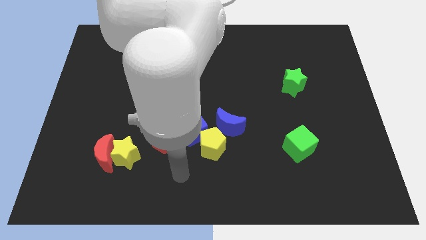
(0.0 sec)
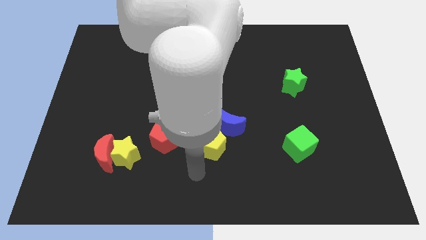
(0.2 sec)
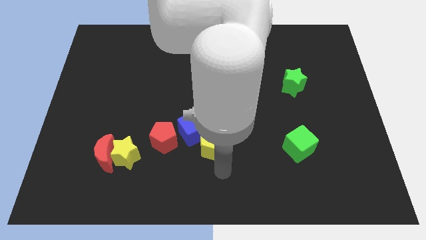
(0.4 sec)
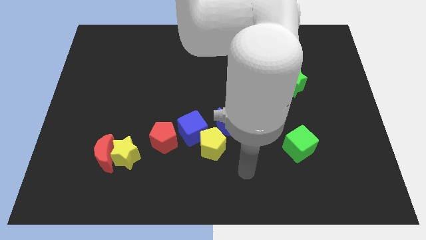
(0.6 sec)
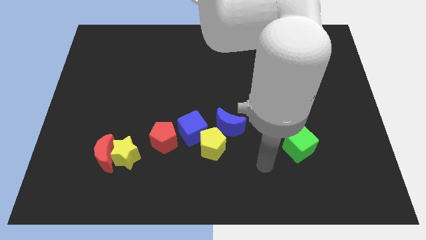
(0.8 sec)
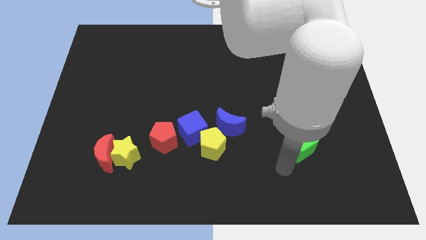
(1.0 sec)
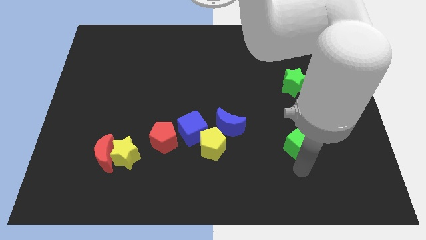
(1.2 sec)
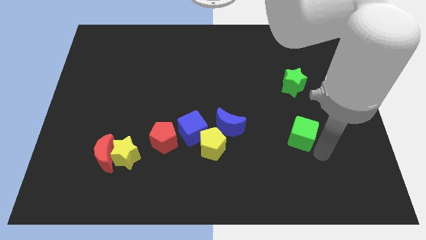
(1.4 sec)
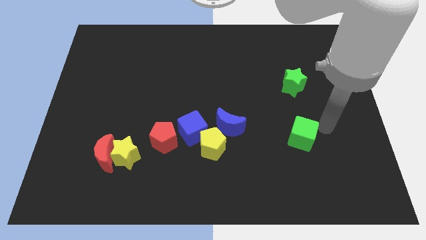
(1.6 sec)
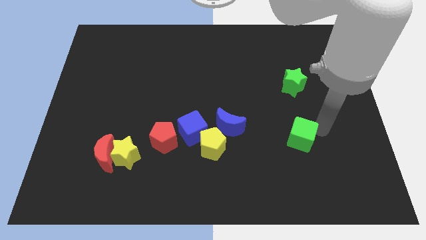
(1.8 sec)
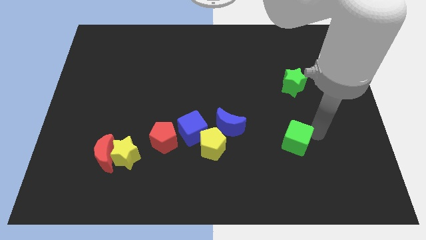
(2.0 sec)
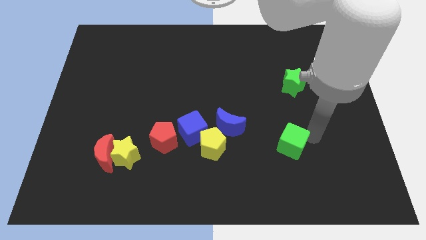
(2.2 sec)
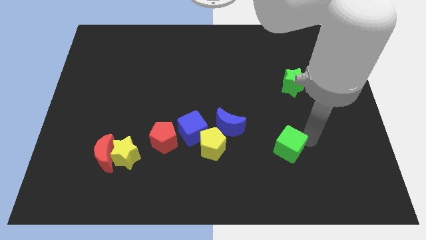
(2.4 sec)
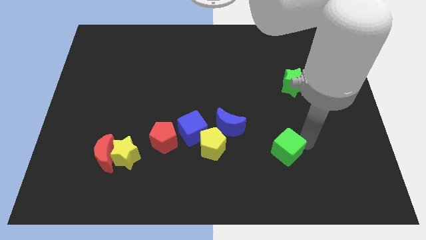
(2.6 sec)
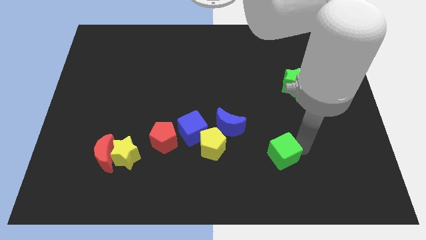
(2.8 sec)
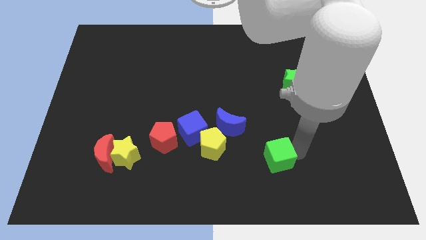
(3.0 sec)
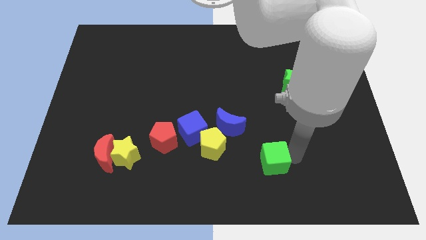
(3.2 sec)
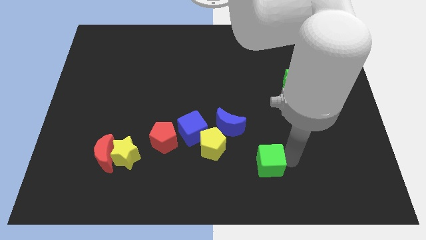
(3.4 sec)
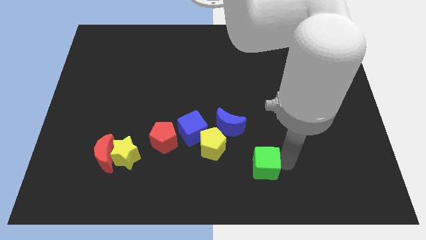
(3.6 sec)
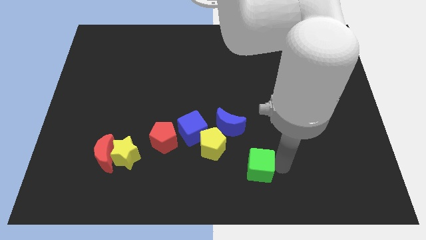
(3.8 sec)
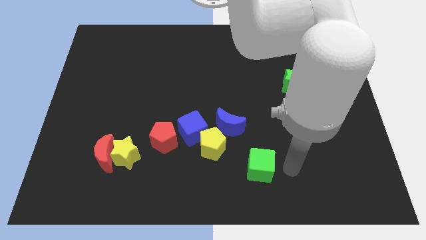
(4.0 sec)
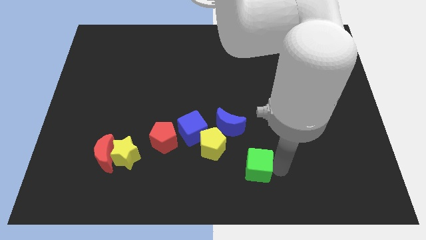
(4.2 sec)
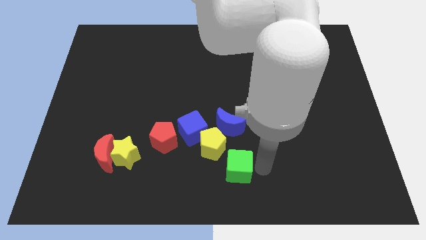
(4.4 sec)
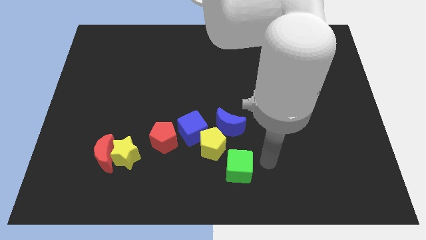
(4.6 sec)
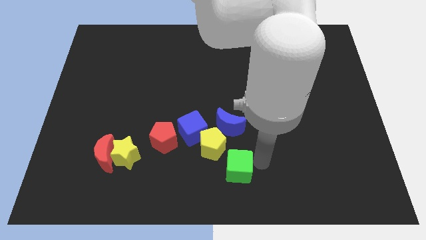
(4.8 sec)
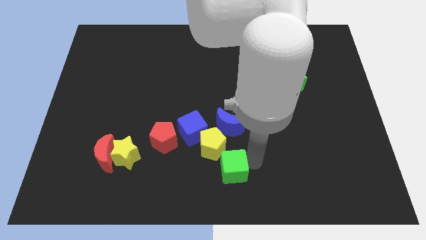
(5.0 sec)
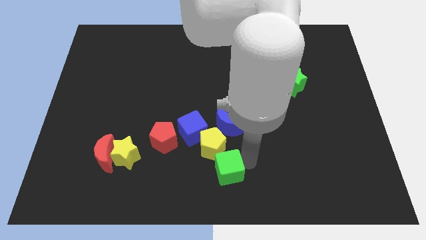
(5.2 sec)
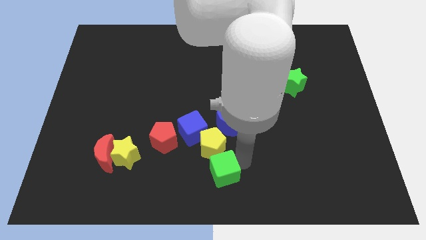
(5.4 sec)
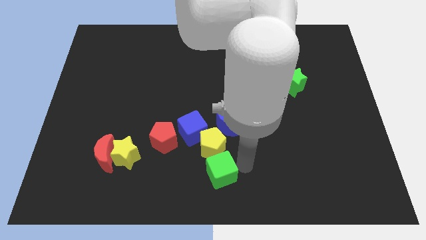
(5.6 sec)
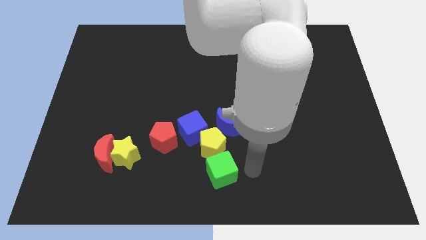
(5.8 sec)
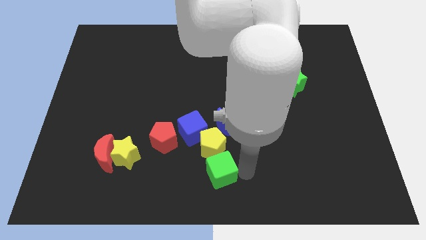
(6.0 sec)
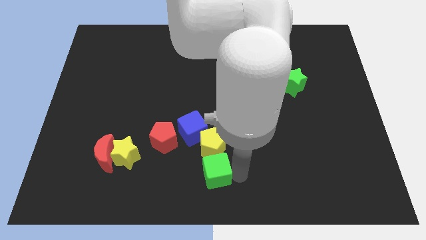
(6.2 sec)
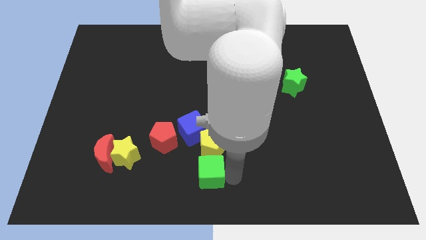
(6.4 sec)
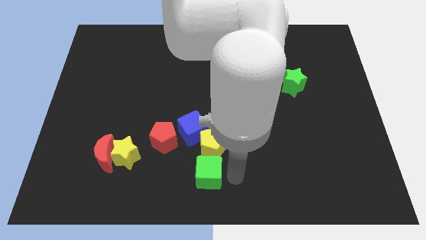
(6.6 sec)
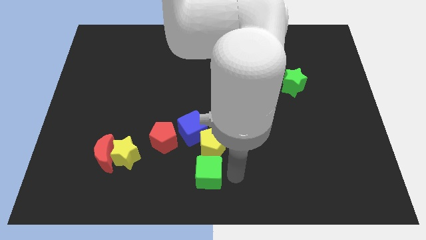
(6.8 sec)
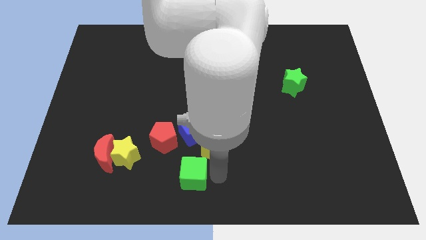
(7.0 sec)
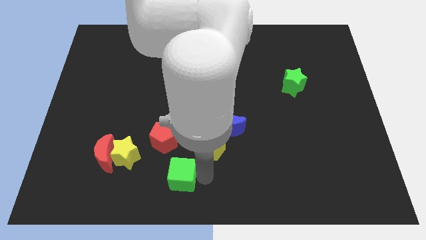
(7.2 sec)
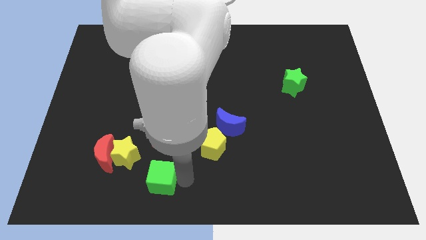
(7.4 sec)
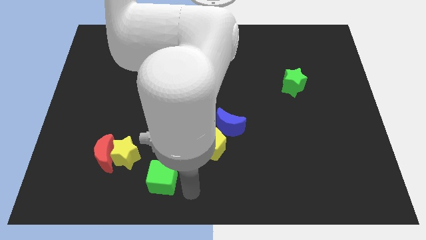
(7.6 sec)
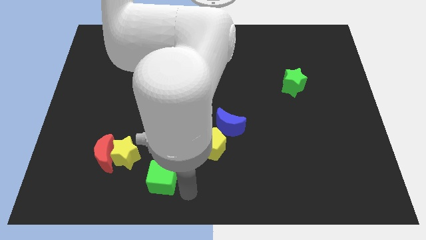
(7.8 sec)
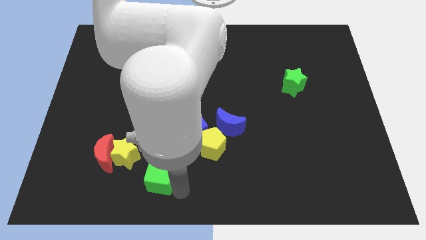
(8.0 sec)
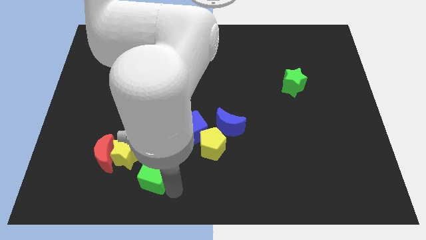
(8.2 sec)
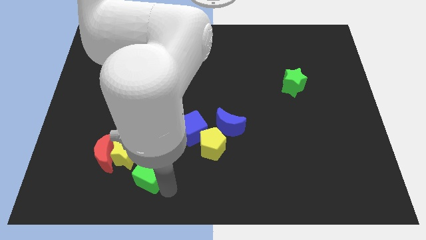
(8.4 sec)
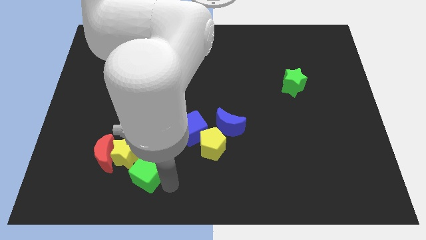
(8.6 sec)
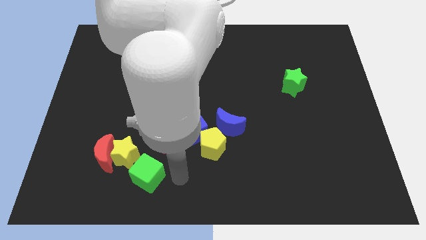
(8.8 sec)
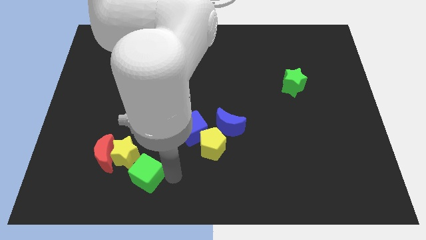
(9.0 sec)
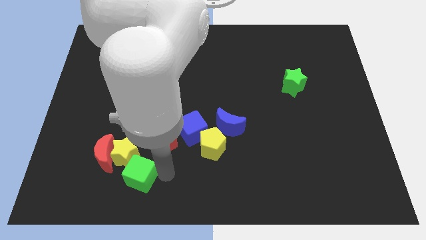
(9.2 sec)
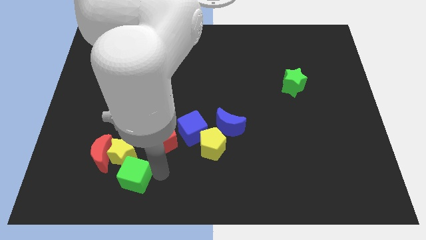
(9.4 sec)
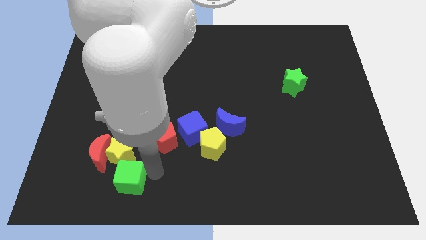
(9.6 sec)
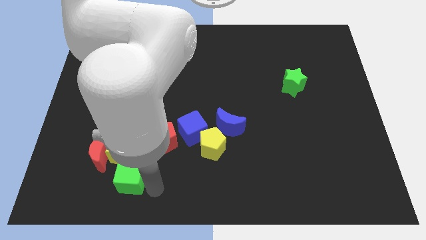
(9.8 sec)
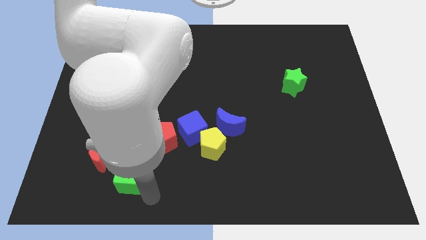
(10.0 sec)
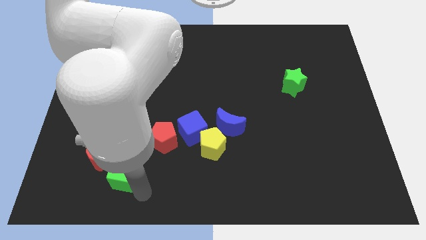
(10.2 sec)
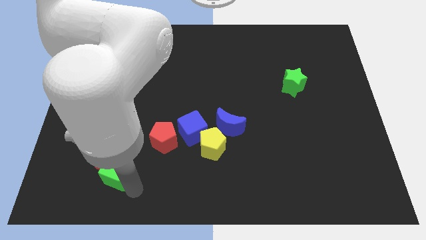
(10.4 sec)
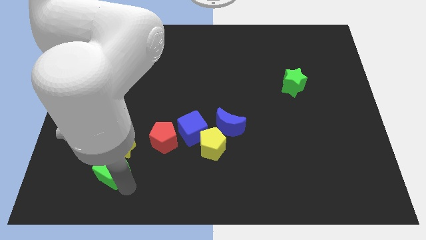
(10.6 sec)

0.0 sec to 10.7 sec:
move the green cube towards the red moon

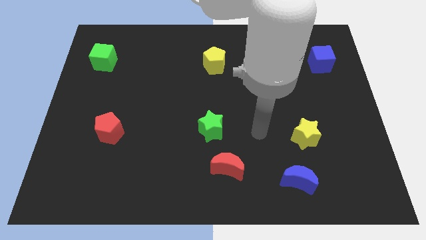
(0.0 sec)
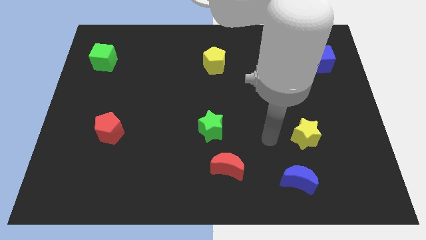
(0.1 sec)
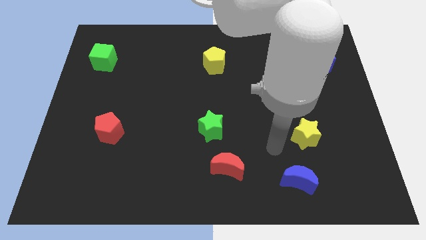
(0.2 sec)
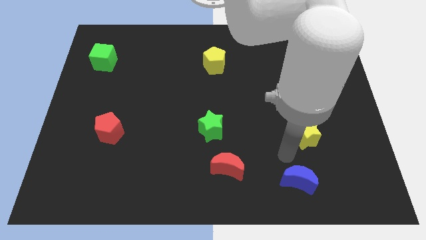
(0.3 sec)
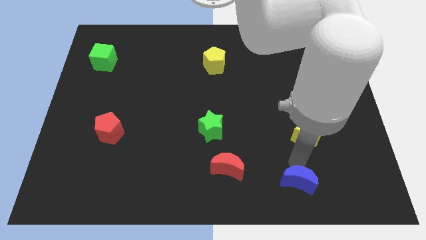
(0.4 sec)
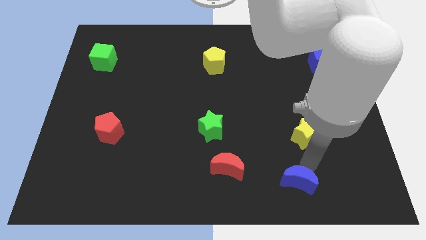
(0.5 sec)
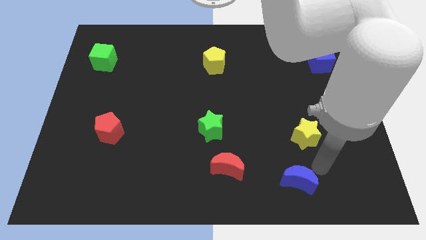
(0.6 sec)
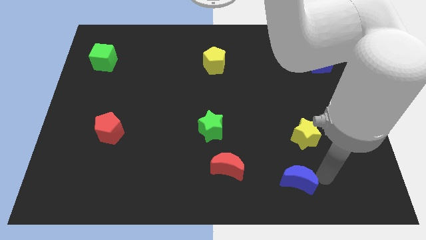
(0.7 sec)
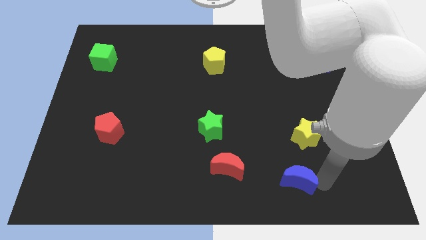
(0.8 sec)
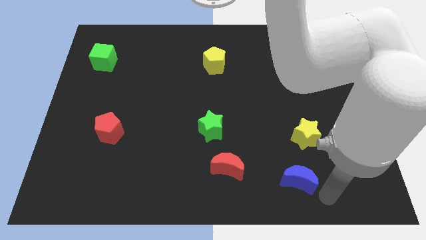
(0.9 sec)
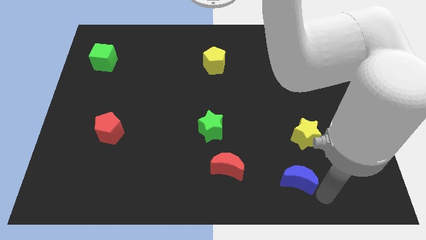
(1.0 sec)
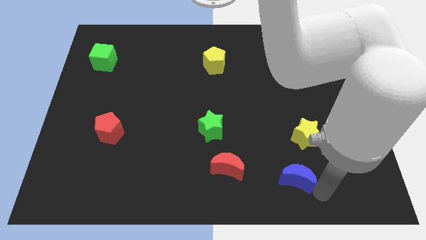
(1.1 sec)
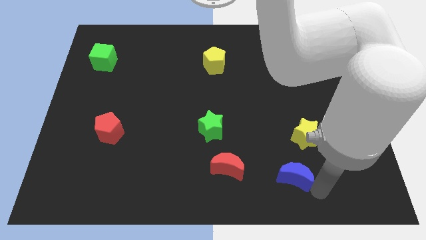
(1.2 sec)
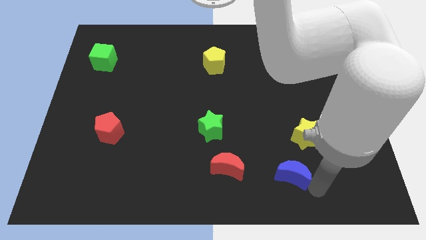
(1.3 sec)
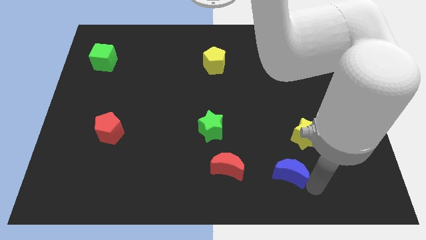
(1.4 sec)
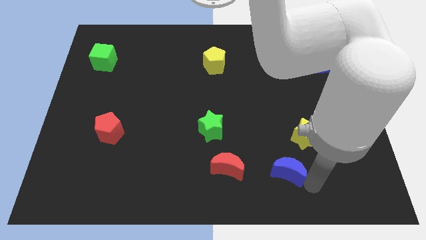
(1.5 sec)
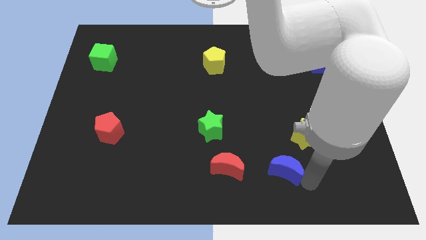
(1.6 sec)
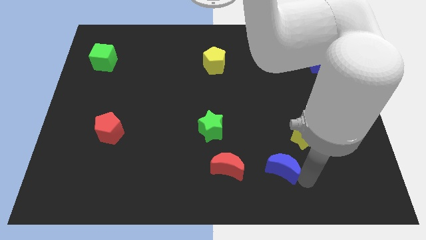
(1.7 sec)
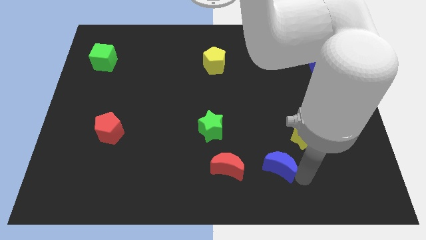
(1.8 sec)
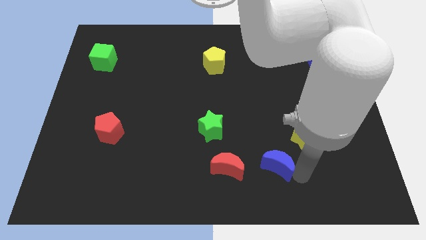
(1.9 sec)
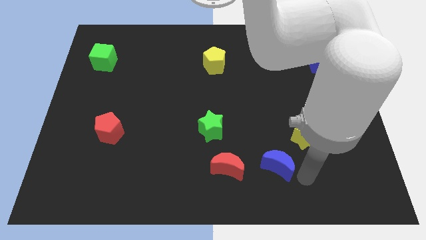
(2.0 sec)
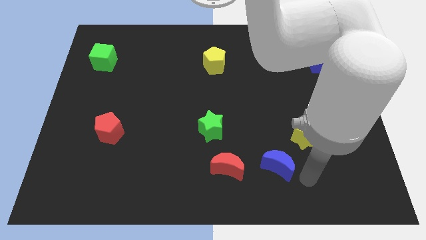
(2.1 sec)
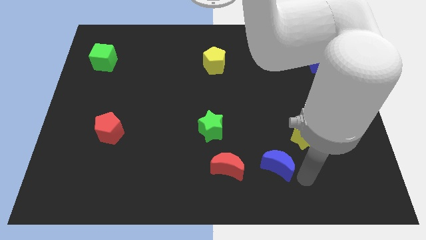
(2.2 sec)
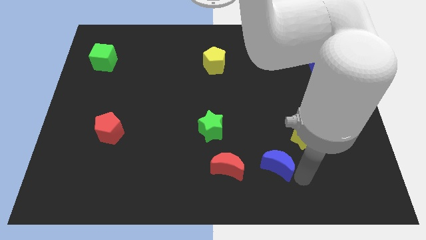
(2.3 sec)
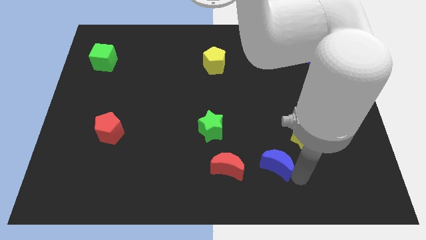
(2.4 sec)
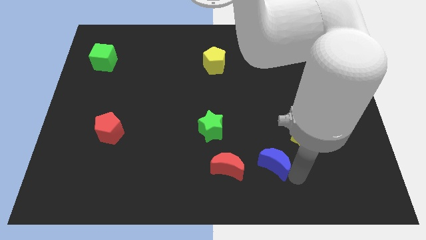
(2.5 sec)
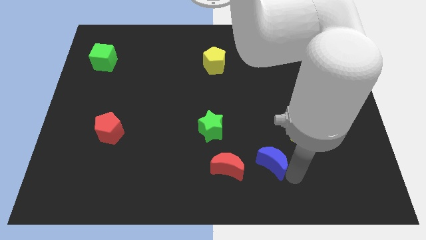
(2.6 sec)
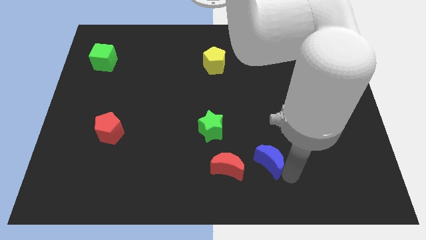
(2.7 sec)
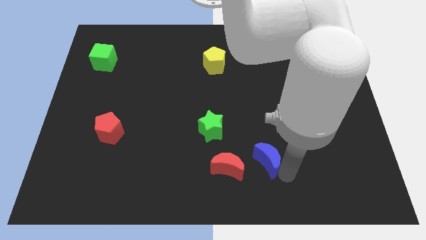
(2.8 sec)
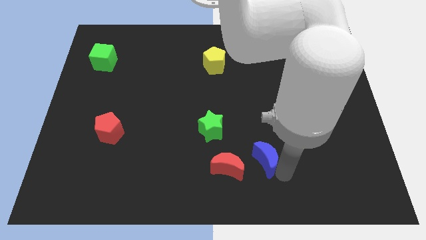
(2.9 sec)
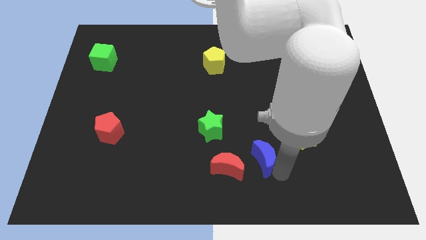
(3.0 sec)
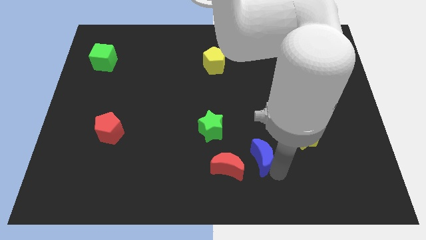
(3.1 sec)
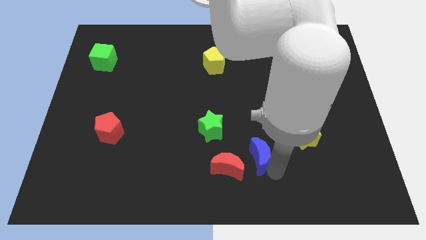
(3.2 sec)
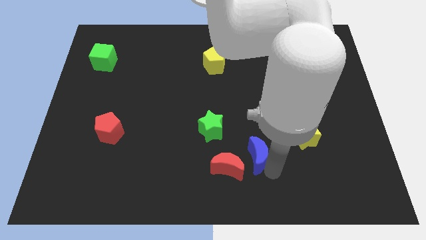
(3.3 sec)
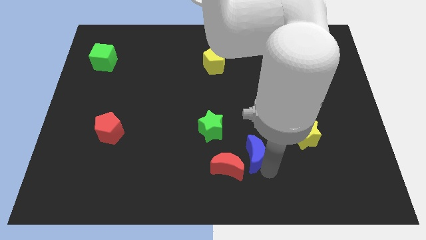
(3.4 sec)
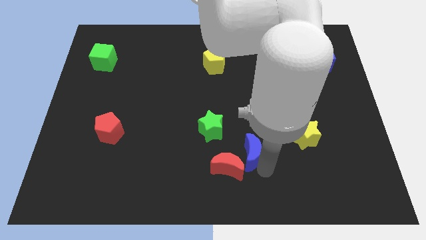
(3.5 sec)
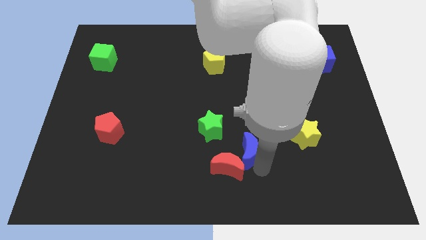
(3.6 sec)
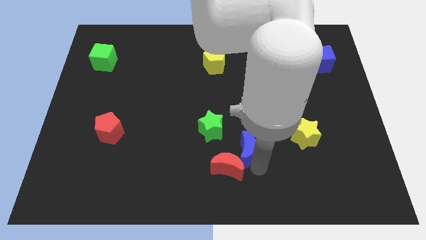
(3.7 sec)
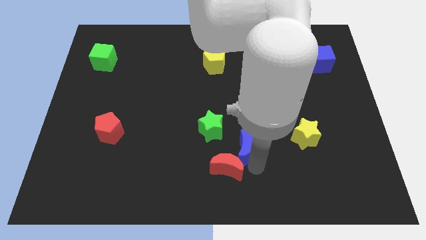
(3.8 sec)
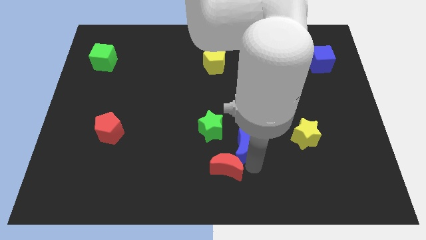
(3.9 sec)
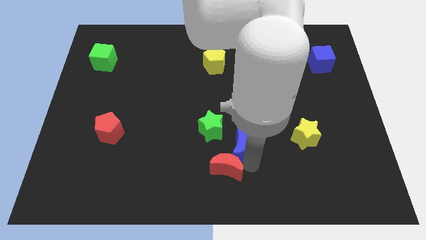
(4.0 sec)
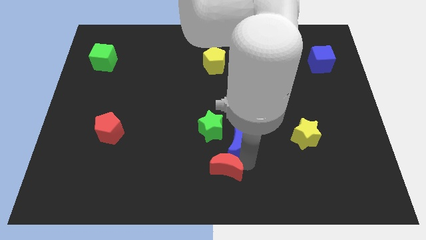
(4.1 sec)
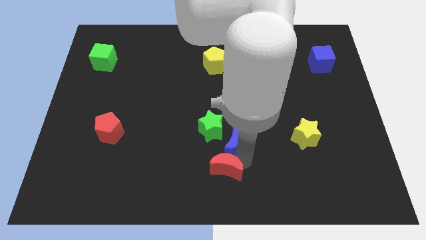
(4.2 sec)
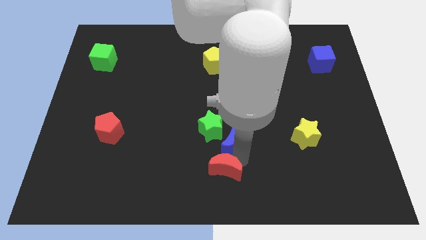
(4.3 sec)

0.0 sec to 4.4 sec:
move the blue moon next to the green star
